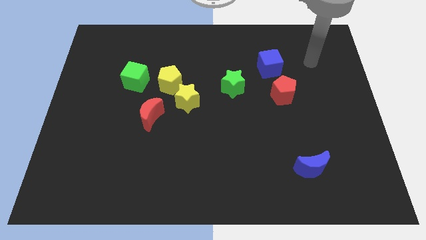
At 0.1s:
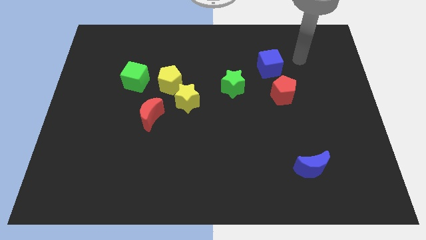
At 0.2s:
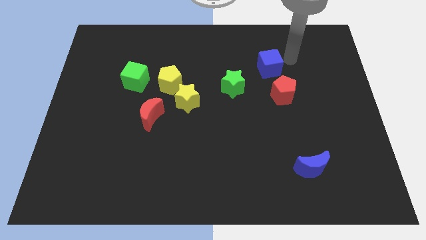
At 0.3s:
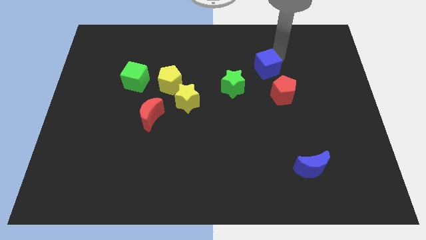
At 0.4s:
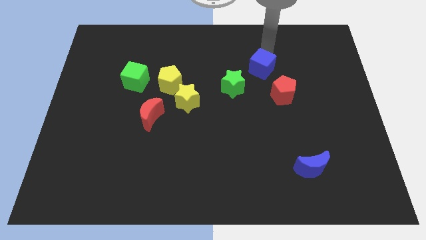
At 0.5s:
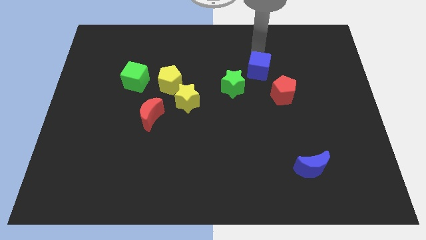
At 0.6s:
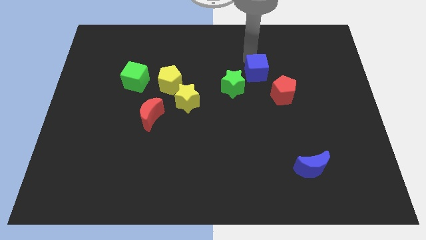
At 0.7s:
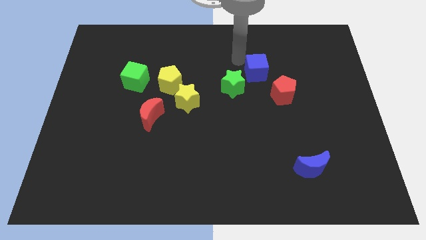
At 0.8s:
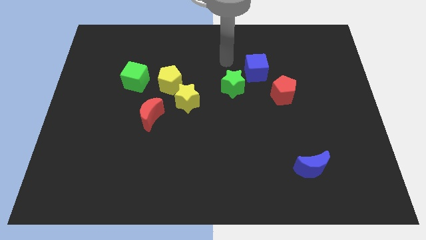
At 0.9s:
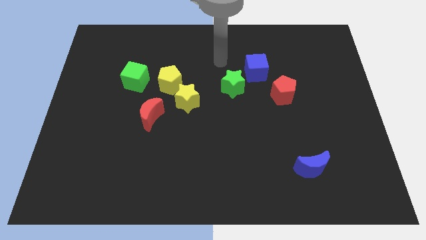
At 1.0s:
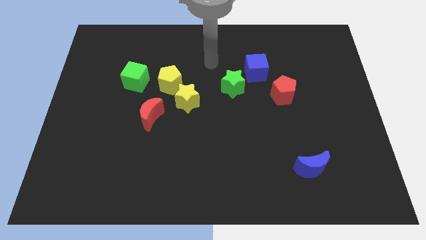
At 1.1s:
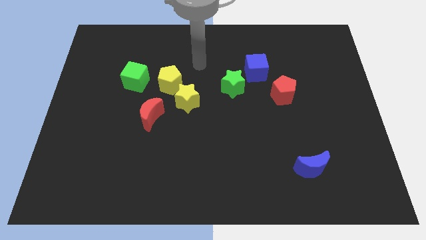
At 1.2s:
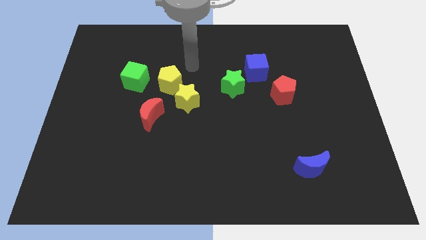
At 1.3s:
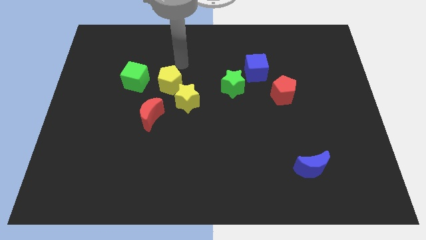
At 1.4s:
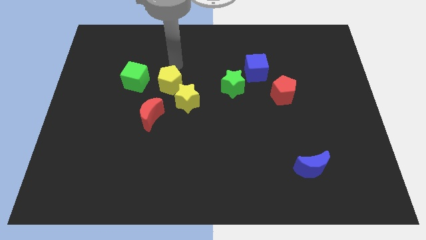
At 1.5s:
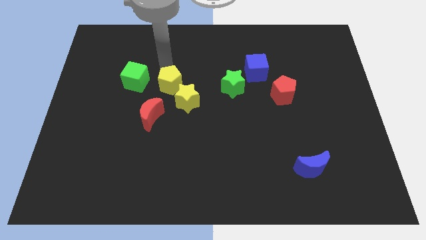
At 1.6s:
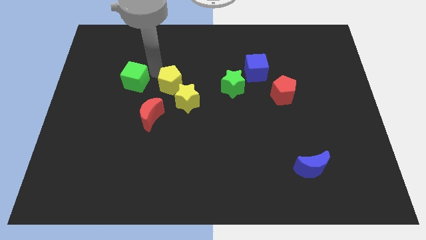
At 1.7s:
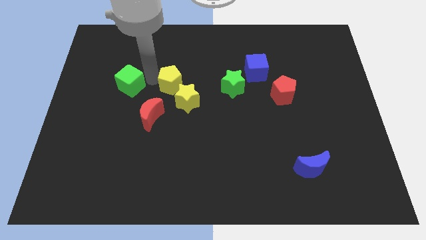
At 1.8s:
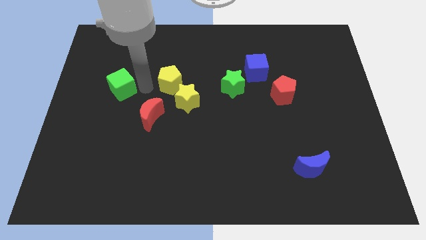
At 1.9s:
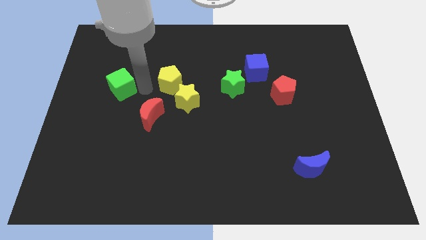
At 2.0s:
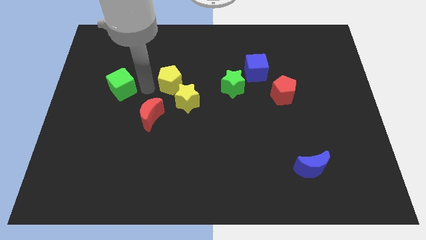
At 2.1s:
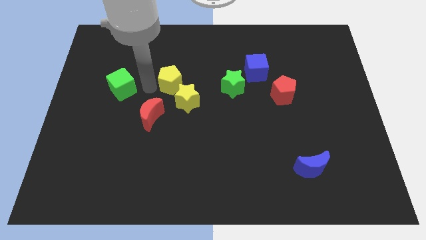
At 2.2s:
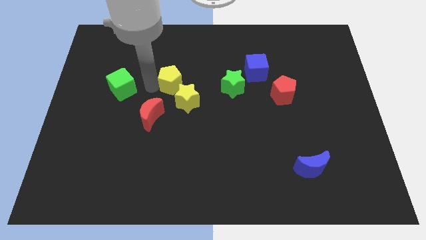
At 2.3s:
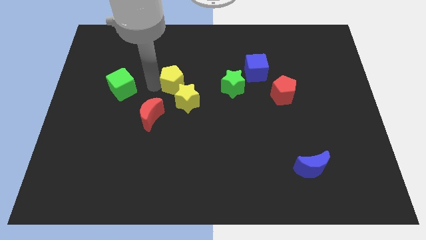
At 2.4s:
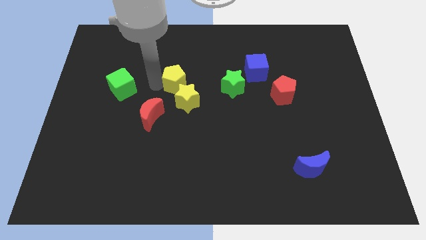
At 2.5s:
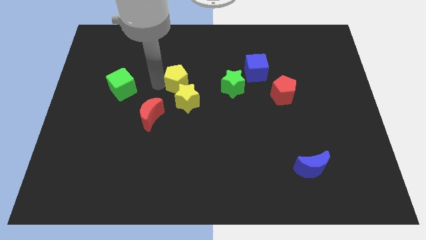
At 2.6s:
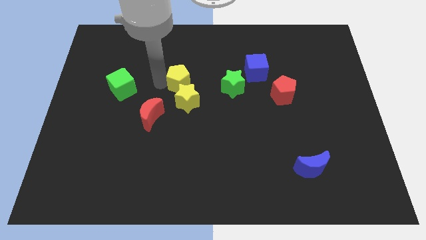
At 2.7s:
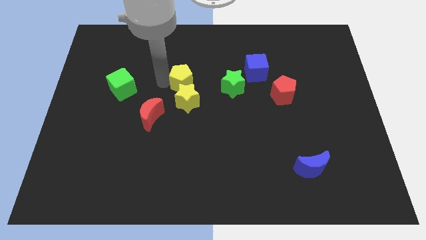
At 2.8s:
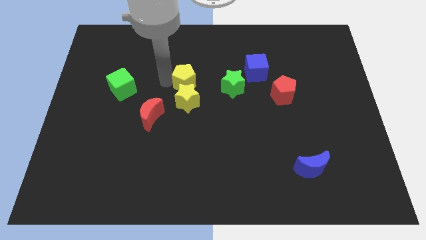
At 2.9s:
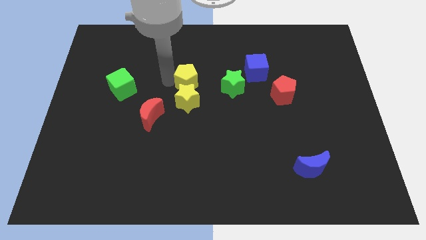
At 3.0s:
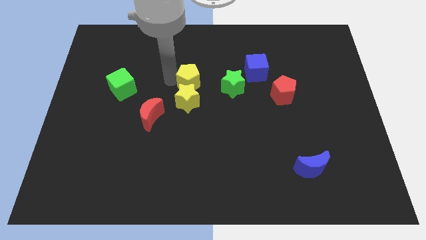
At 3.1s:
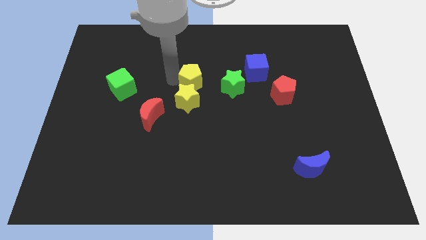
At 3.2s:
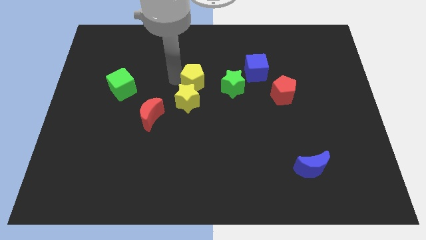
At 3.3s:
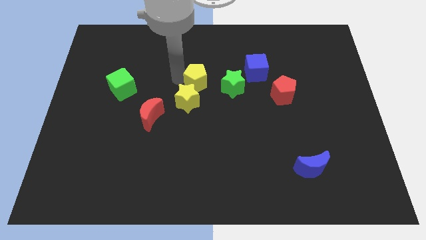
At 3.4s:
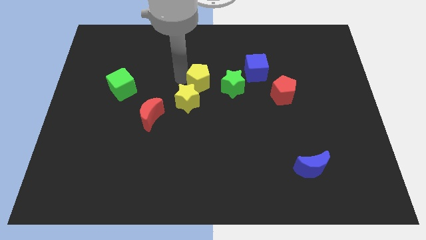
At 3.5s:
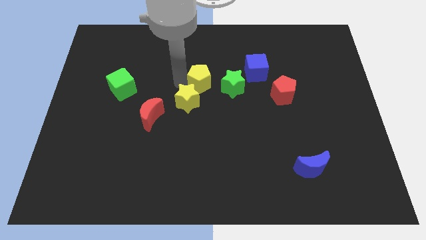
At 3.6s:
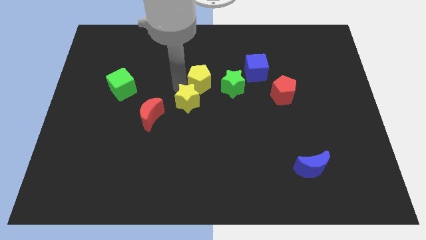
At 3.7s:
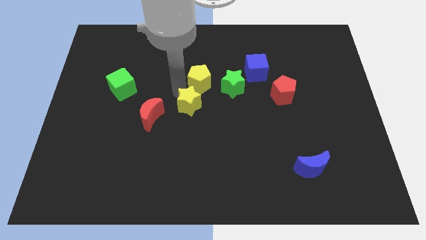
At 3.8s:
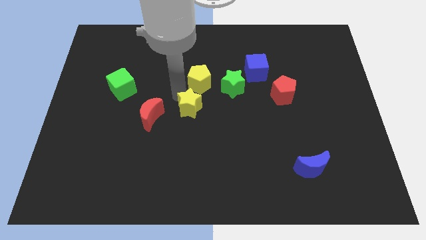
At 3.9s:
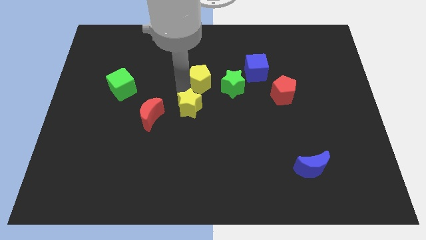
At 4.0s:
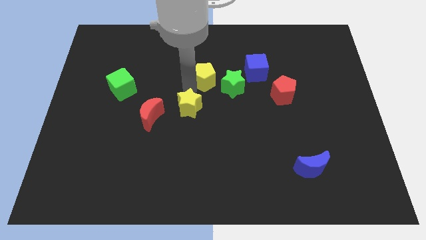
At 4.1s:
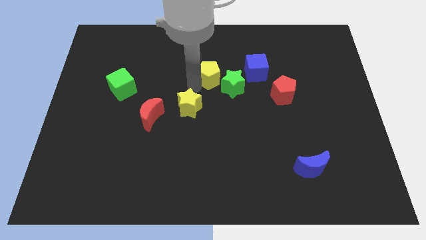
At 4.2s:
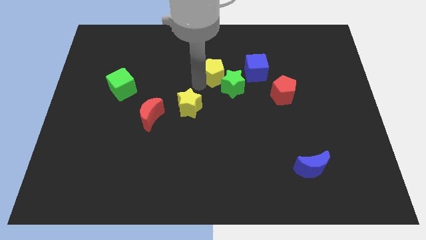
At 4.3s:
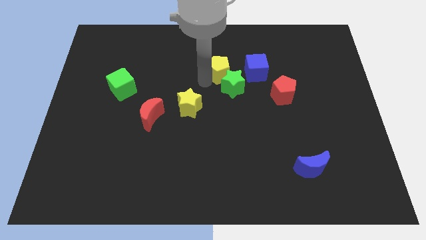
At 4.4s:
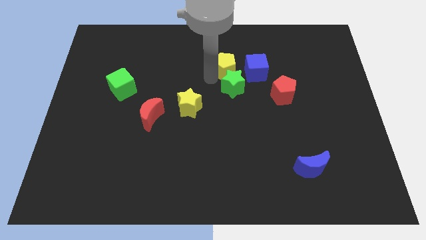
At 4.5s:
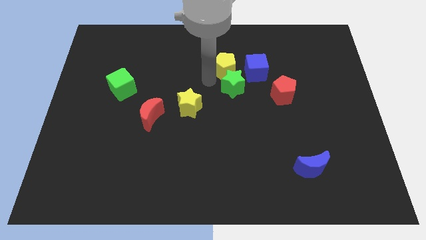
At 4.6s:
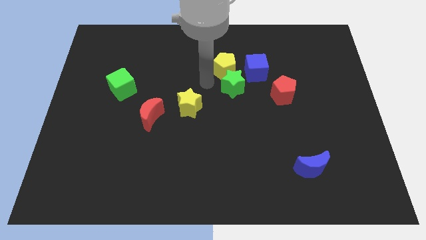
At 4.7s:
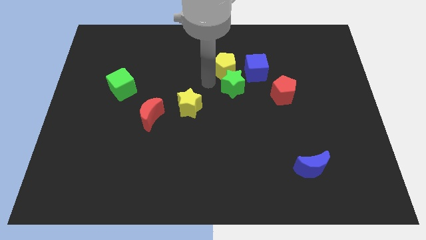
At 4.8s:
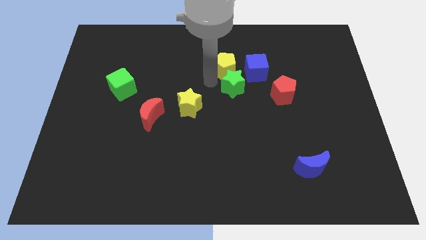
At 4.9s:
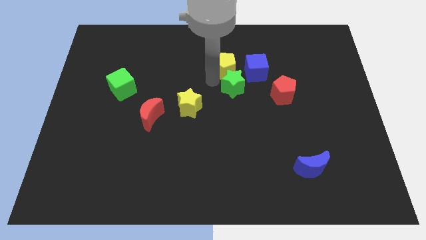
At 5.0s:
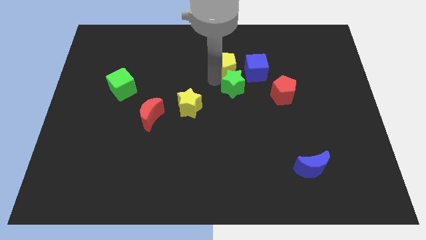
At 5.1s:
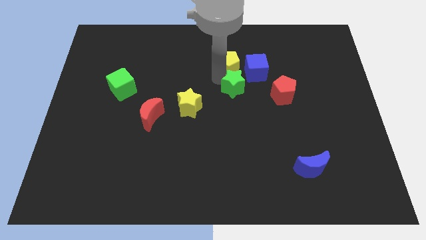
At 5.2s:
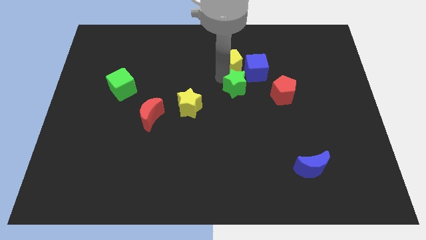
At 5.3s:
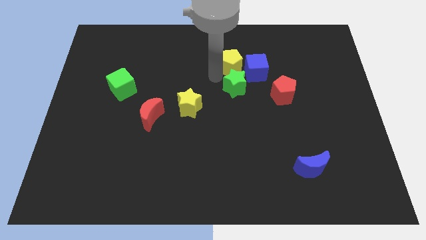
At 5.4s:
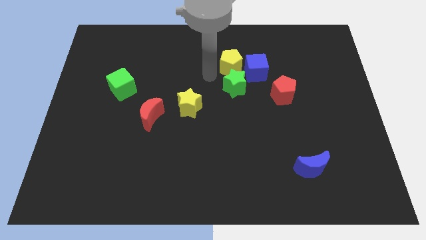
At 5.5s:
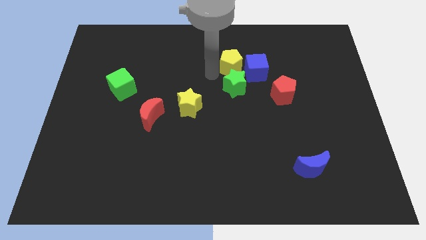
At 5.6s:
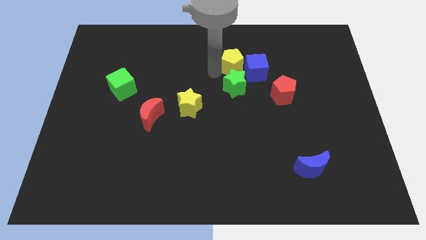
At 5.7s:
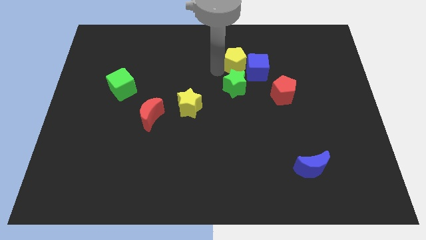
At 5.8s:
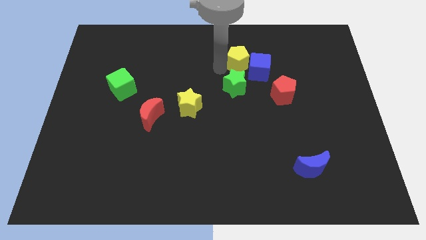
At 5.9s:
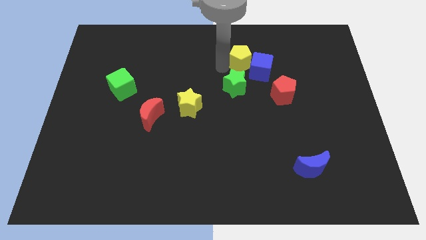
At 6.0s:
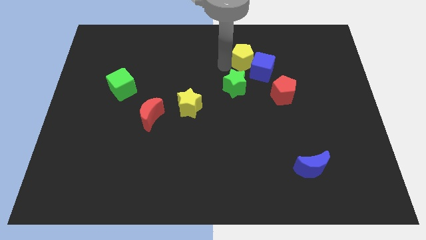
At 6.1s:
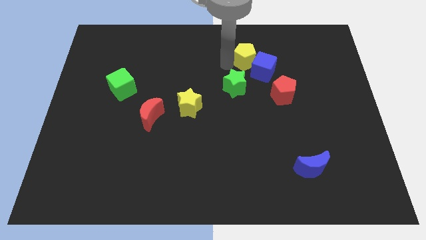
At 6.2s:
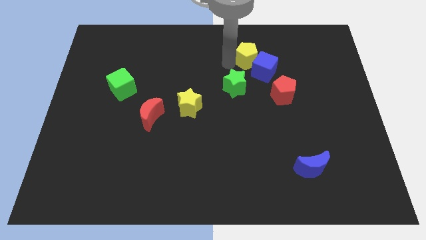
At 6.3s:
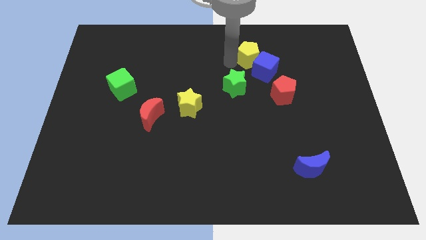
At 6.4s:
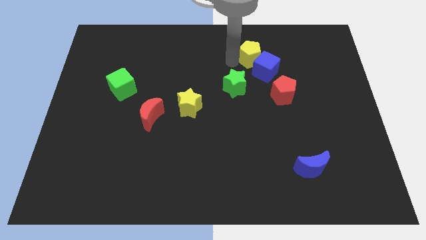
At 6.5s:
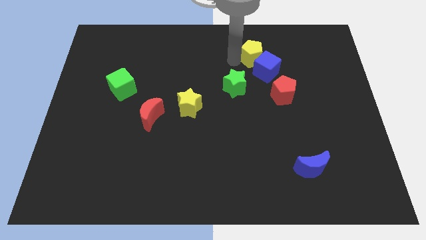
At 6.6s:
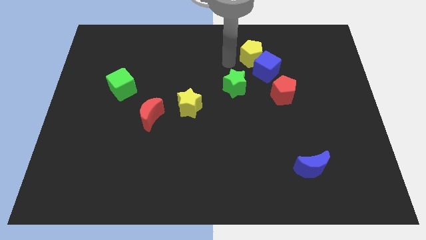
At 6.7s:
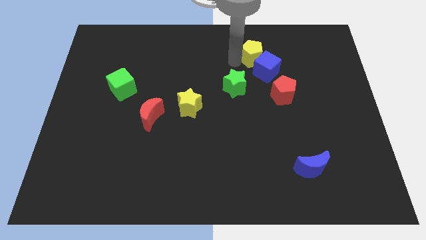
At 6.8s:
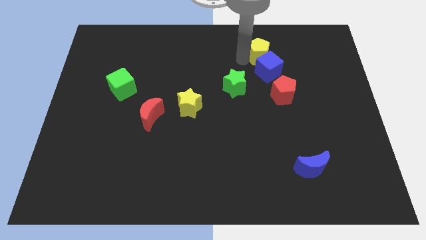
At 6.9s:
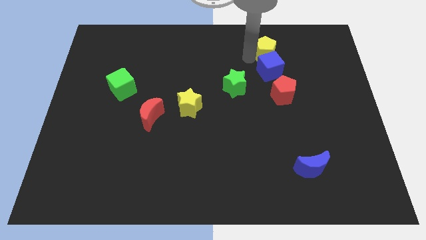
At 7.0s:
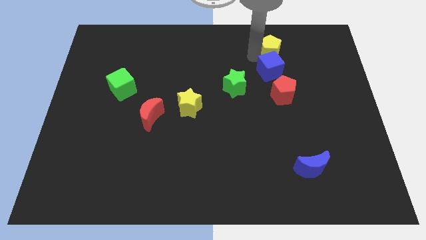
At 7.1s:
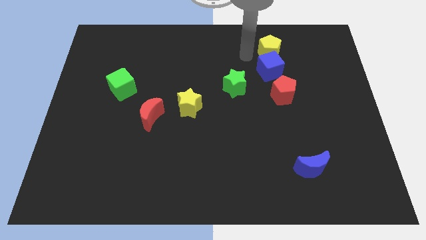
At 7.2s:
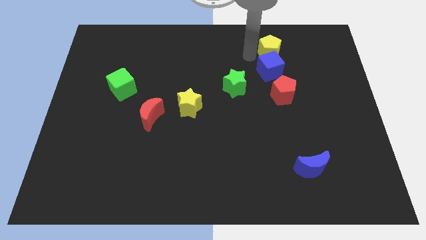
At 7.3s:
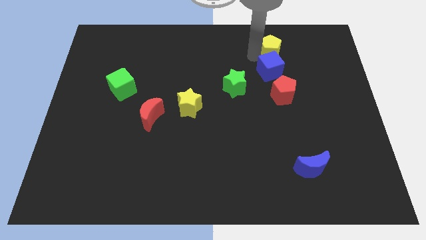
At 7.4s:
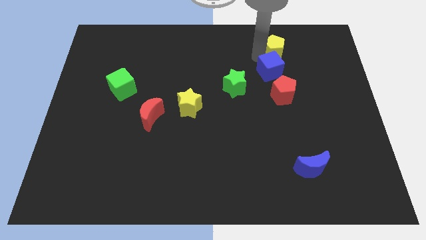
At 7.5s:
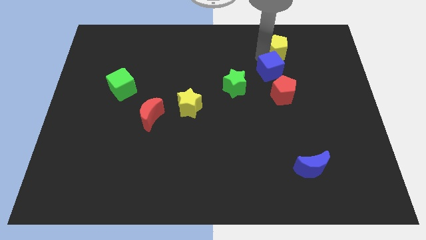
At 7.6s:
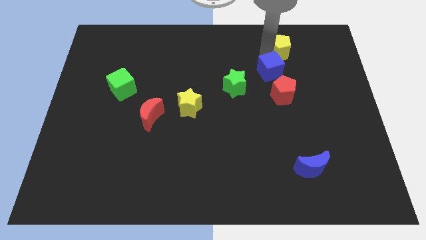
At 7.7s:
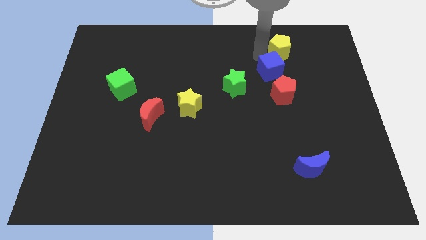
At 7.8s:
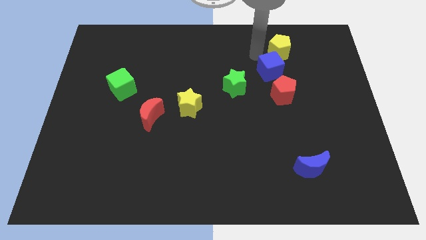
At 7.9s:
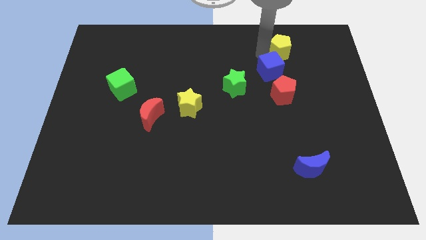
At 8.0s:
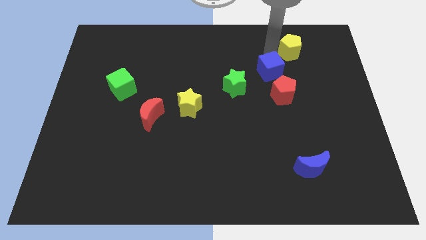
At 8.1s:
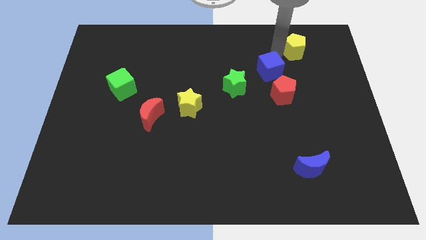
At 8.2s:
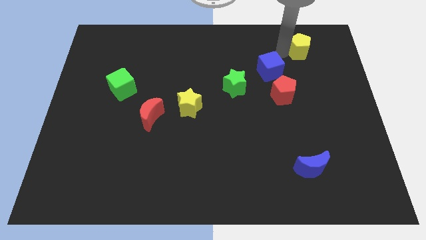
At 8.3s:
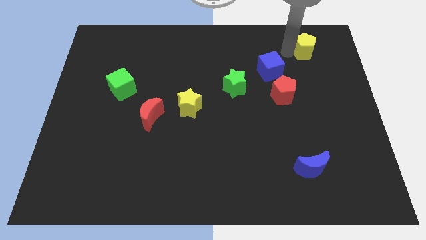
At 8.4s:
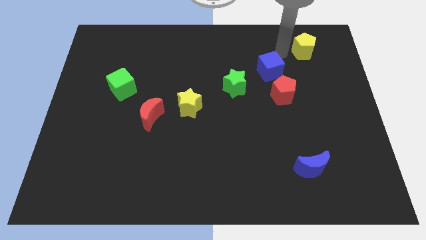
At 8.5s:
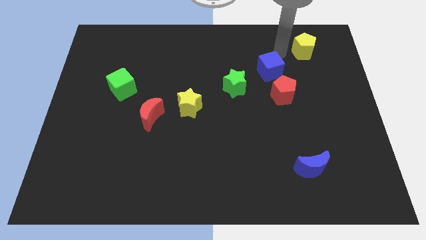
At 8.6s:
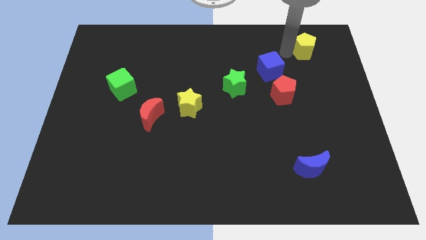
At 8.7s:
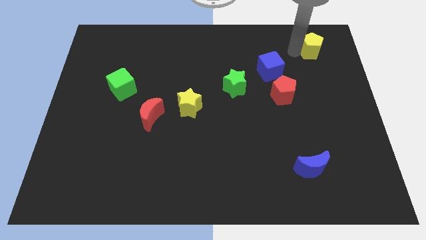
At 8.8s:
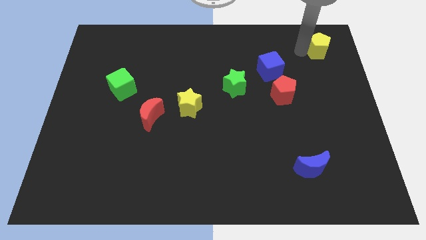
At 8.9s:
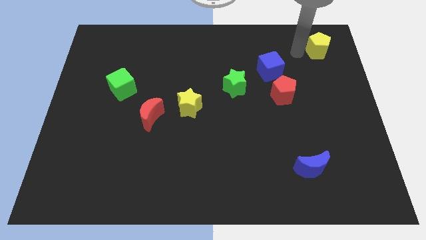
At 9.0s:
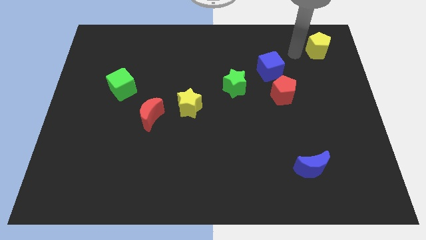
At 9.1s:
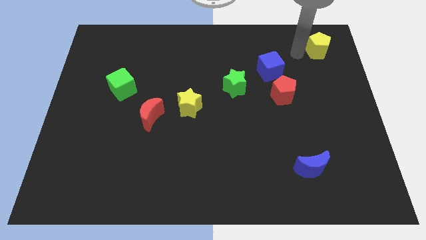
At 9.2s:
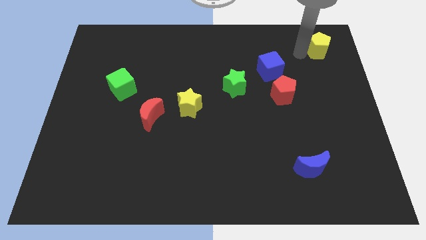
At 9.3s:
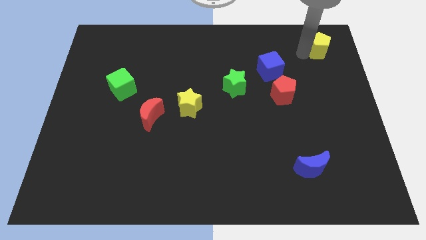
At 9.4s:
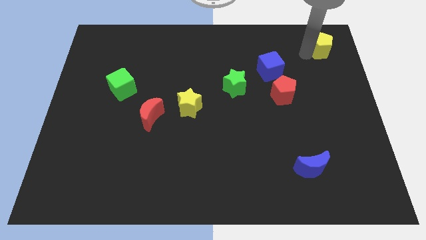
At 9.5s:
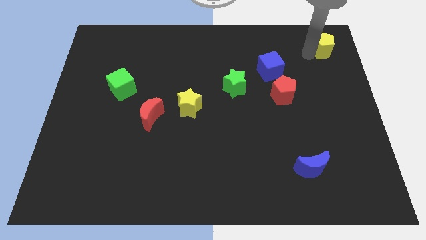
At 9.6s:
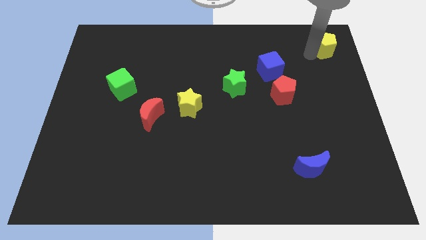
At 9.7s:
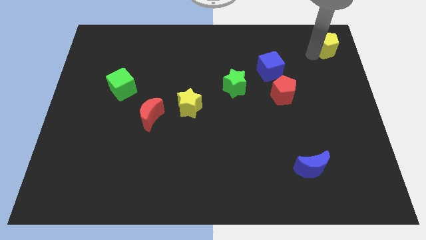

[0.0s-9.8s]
move the yellow pentagon to the upper right corner
